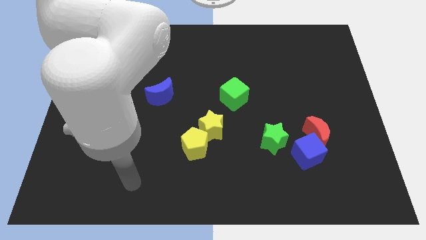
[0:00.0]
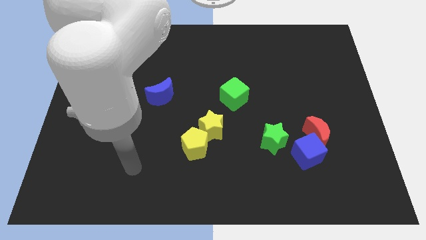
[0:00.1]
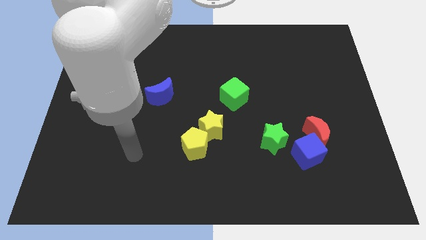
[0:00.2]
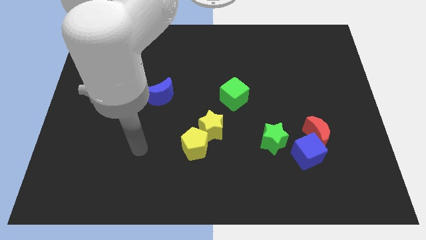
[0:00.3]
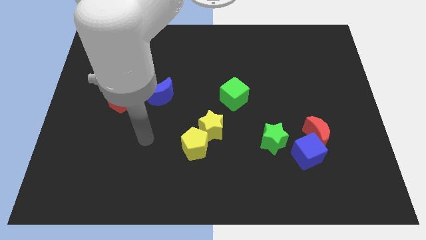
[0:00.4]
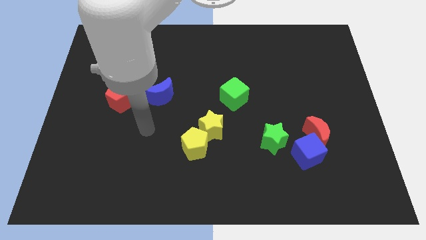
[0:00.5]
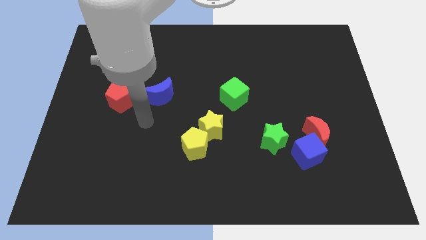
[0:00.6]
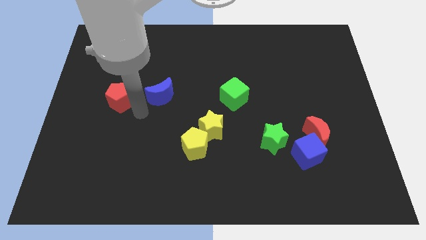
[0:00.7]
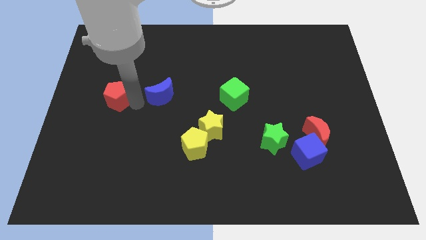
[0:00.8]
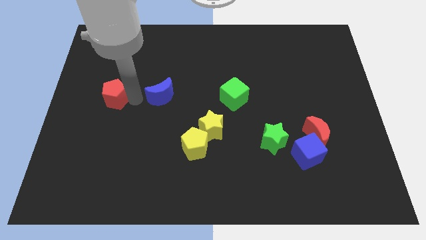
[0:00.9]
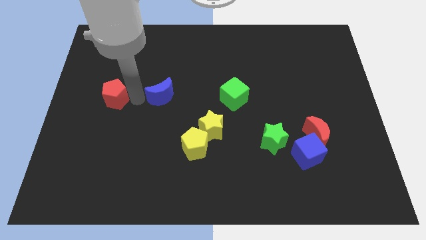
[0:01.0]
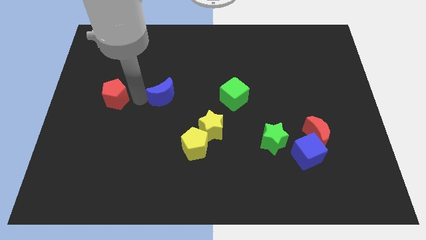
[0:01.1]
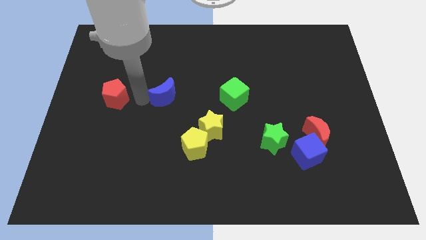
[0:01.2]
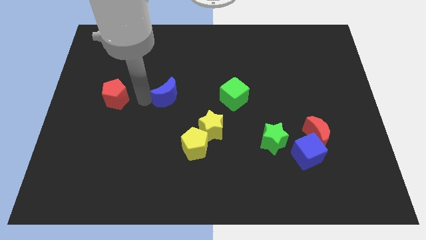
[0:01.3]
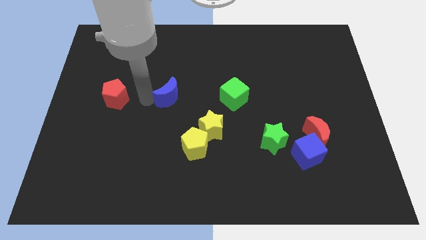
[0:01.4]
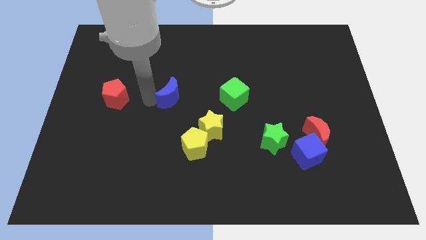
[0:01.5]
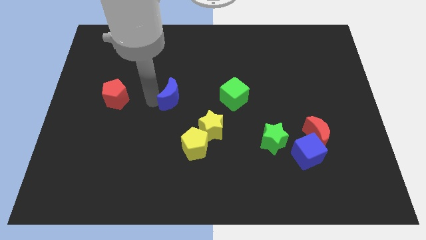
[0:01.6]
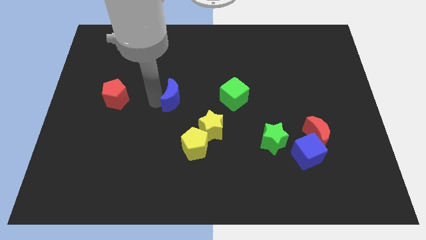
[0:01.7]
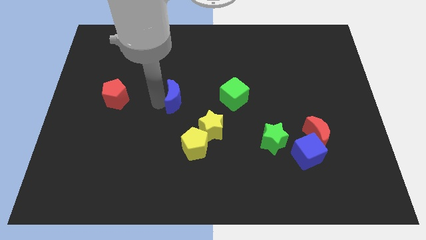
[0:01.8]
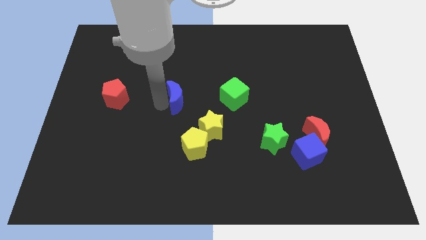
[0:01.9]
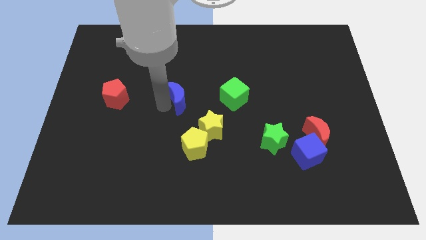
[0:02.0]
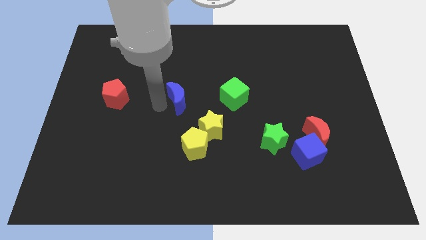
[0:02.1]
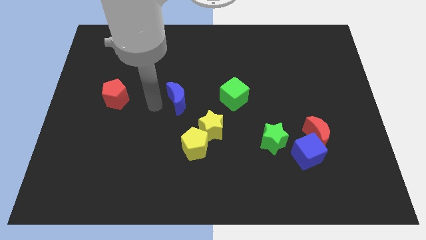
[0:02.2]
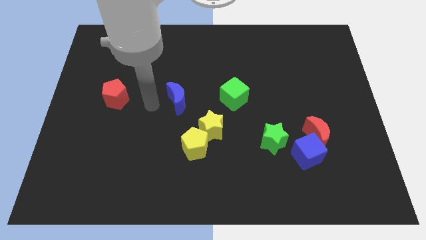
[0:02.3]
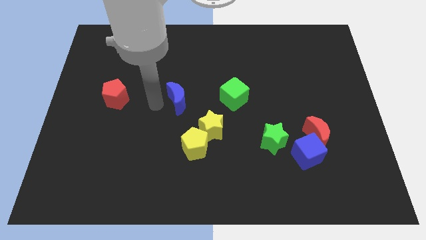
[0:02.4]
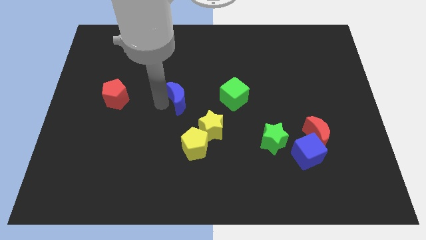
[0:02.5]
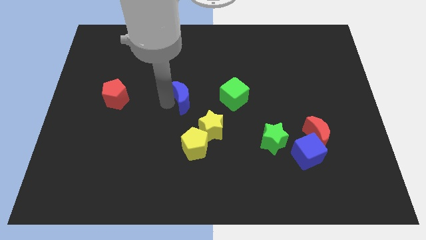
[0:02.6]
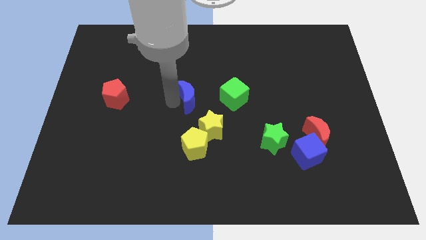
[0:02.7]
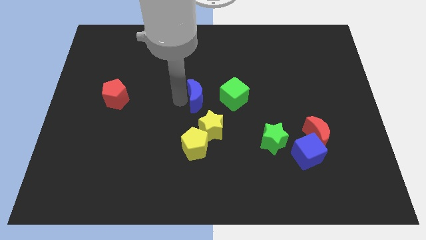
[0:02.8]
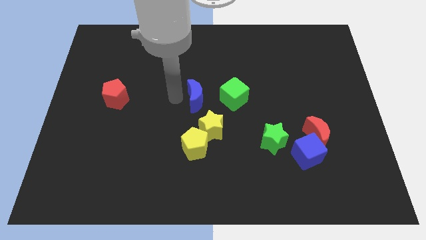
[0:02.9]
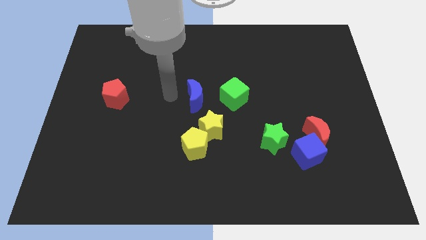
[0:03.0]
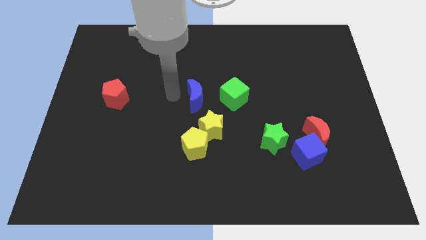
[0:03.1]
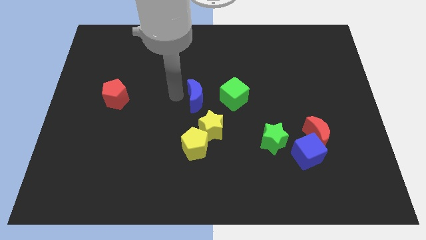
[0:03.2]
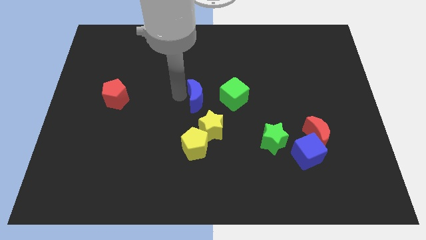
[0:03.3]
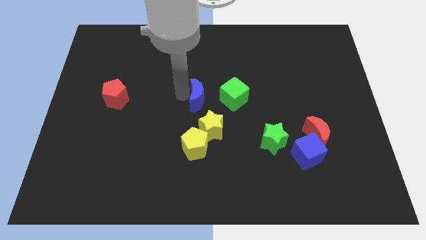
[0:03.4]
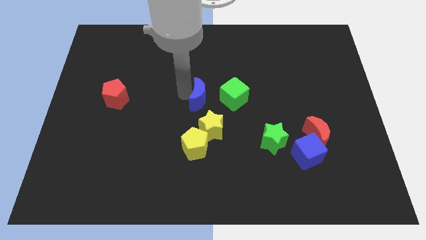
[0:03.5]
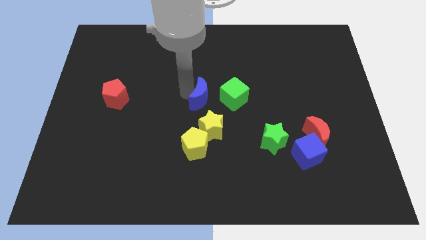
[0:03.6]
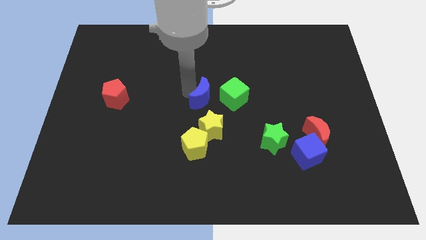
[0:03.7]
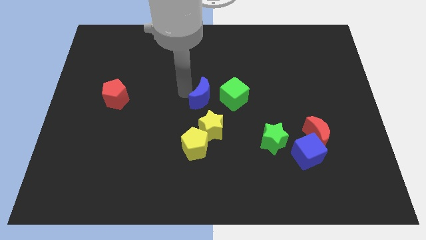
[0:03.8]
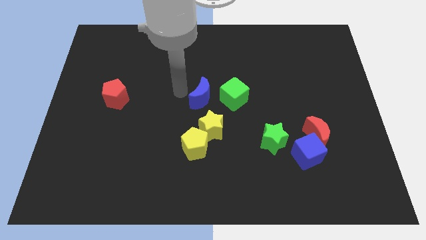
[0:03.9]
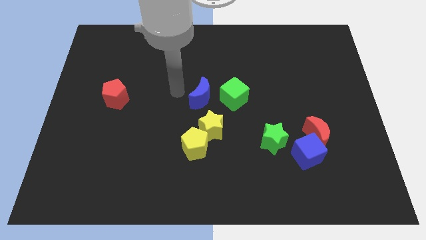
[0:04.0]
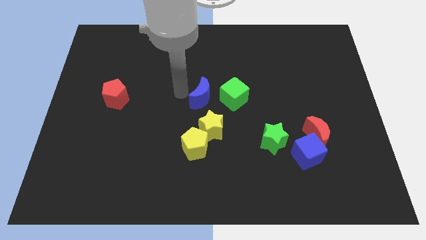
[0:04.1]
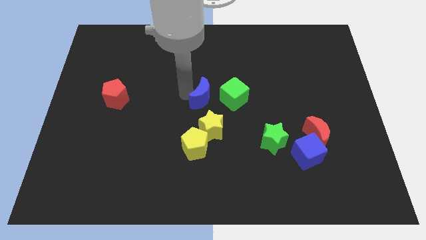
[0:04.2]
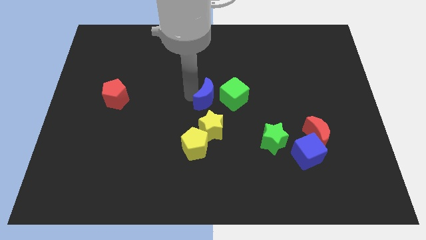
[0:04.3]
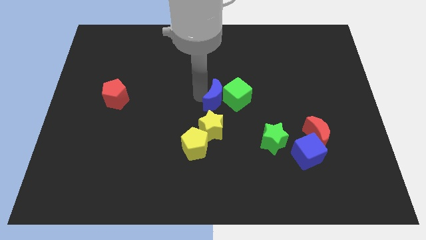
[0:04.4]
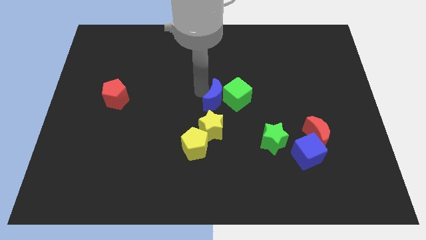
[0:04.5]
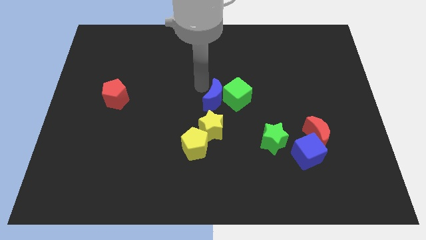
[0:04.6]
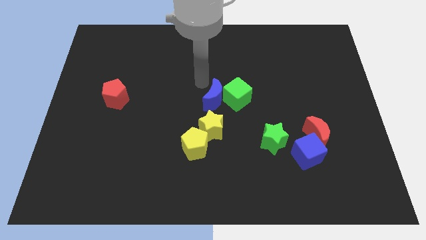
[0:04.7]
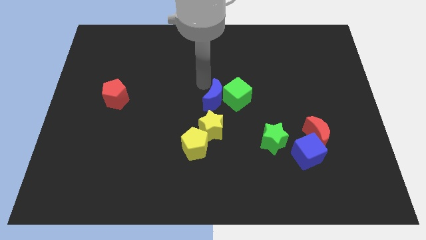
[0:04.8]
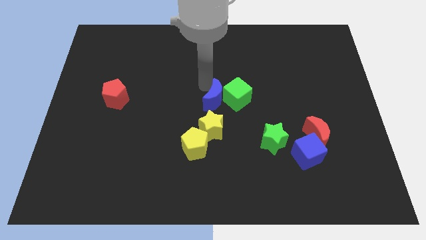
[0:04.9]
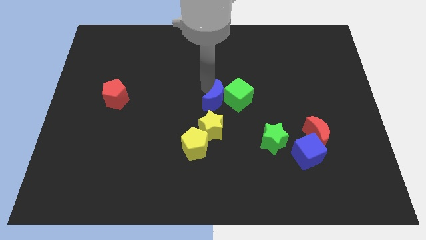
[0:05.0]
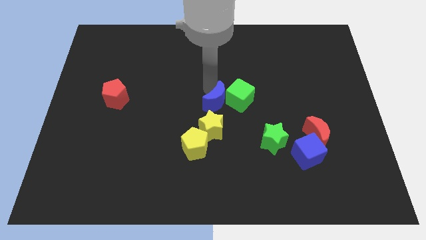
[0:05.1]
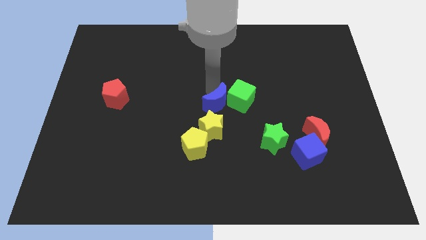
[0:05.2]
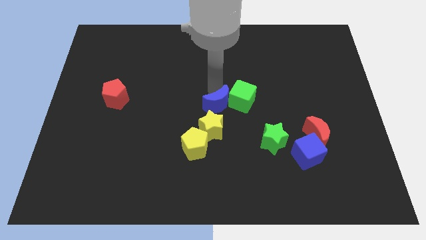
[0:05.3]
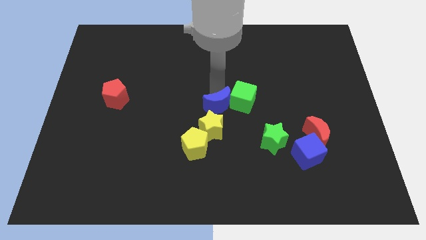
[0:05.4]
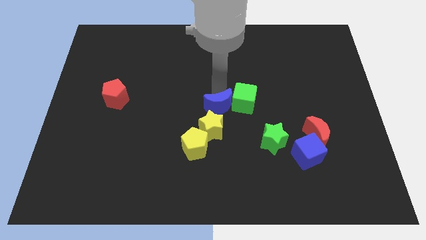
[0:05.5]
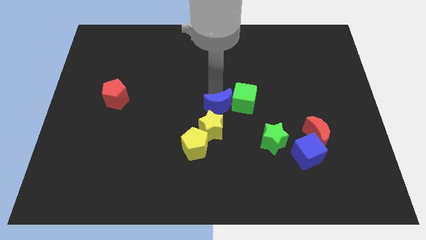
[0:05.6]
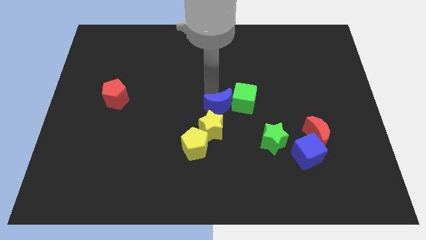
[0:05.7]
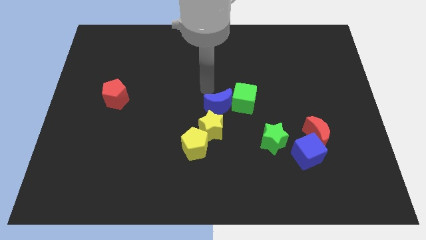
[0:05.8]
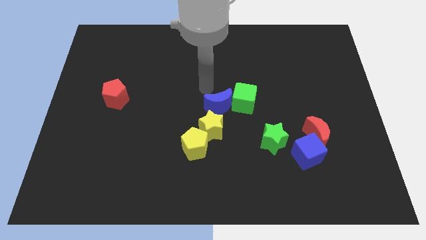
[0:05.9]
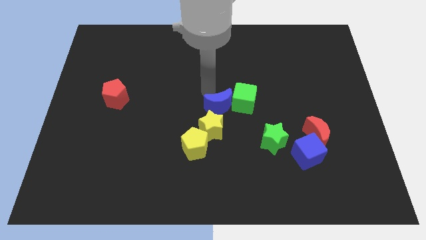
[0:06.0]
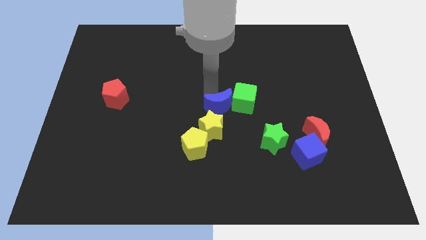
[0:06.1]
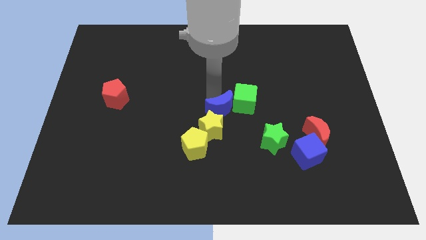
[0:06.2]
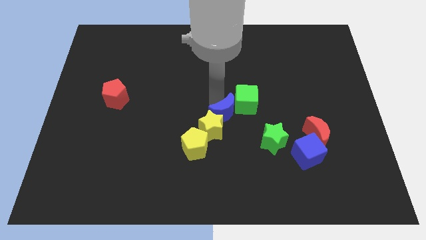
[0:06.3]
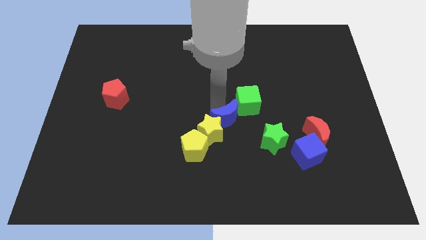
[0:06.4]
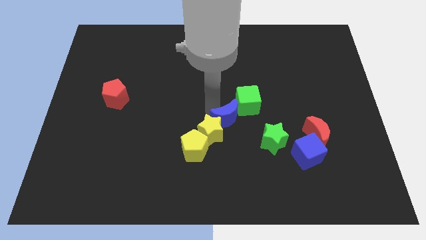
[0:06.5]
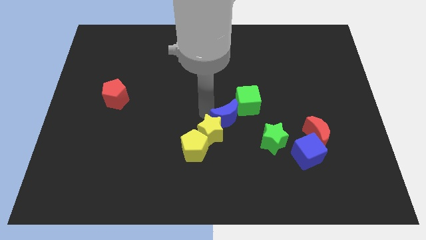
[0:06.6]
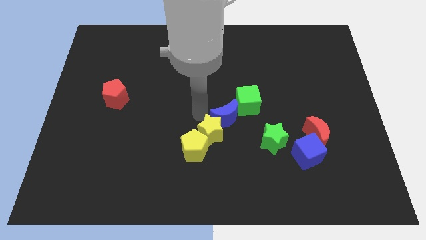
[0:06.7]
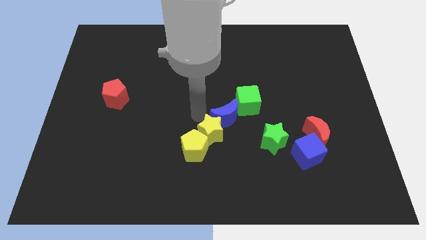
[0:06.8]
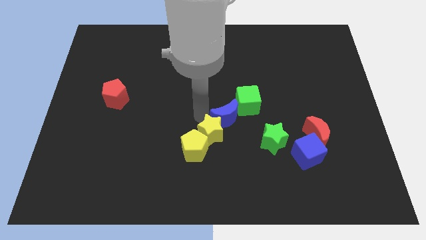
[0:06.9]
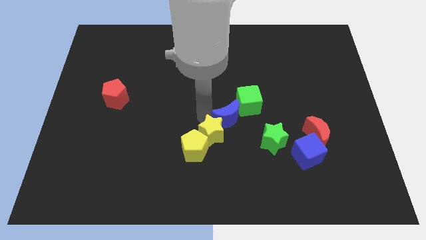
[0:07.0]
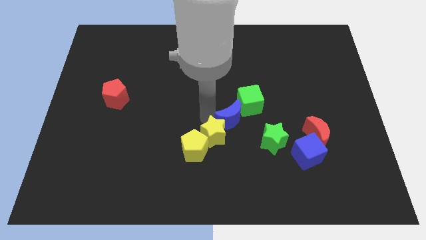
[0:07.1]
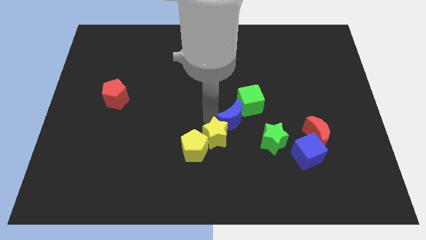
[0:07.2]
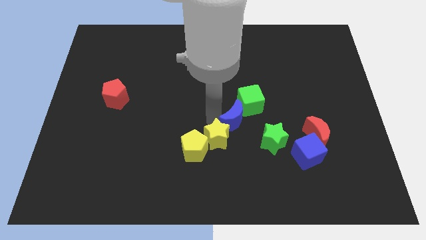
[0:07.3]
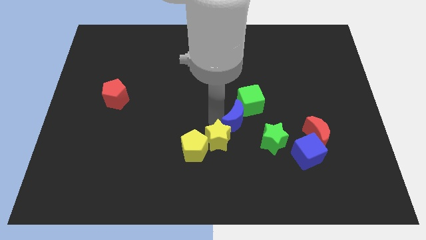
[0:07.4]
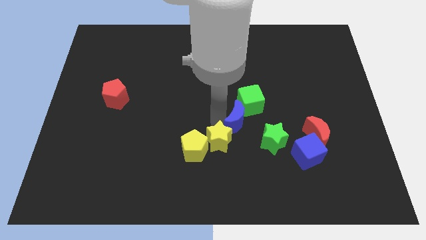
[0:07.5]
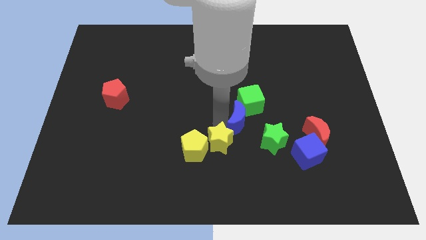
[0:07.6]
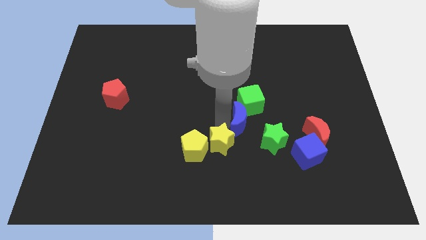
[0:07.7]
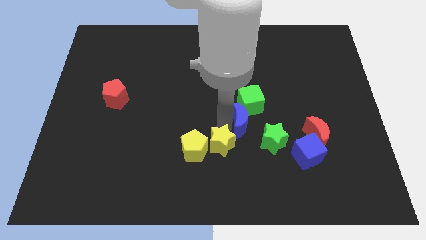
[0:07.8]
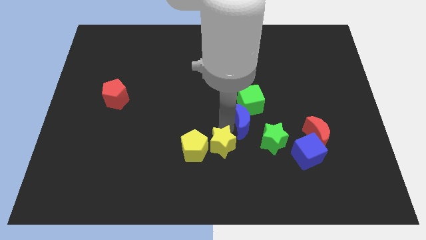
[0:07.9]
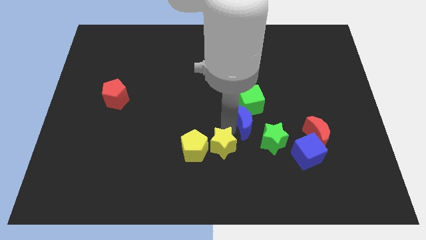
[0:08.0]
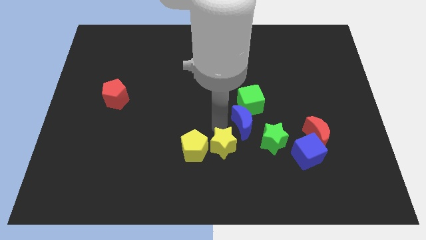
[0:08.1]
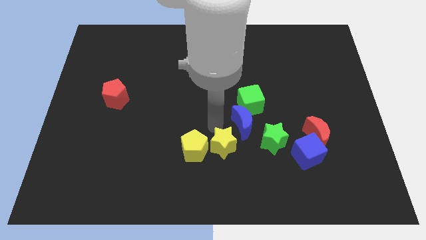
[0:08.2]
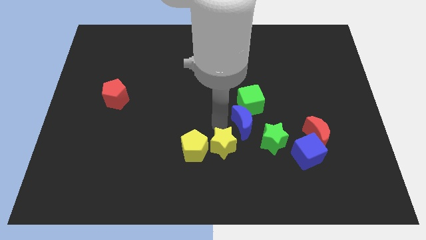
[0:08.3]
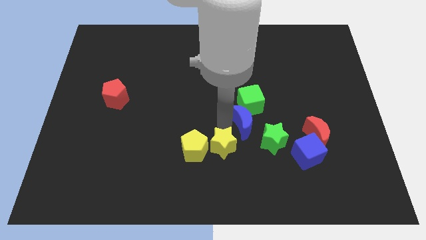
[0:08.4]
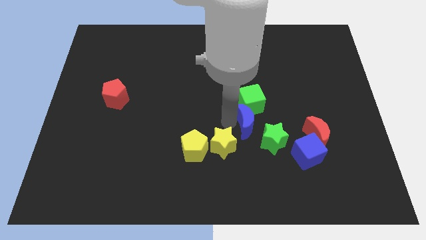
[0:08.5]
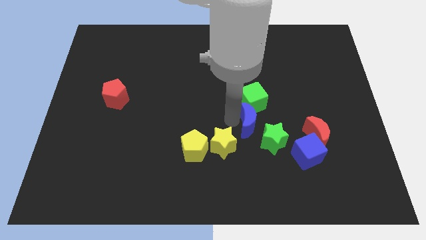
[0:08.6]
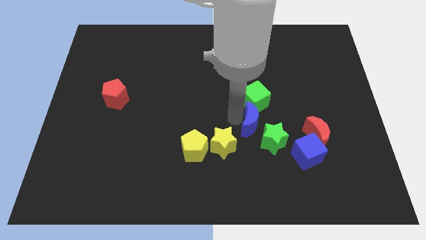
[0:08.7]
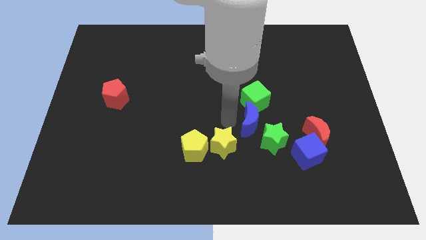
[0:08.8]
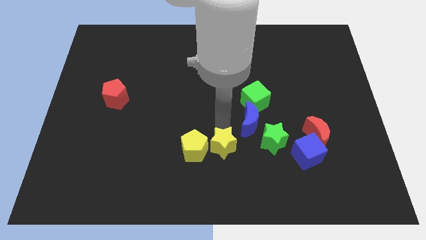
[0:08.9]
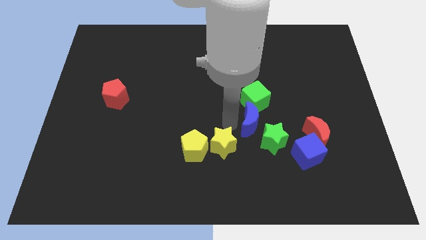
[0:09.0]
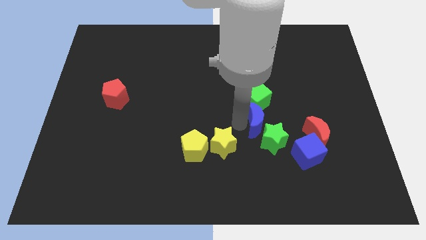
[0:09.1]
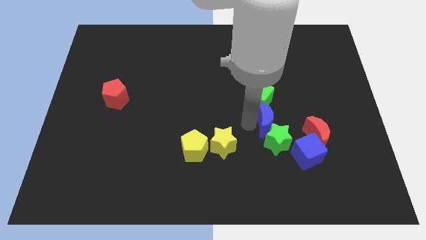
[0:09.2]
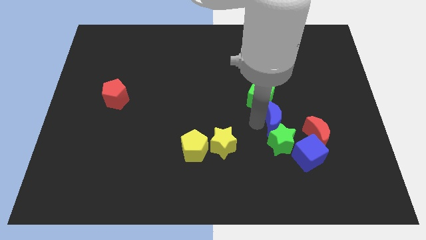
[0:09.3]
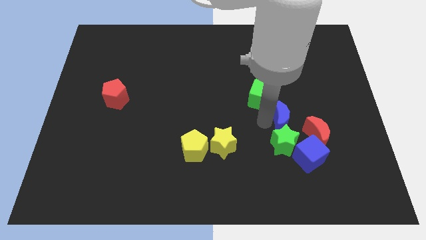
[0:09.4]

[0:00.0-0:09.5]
move the blue moon to the top right of the green star
